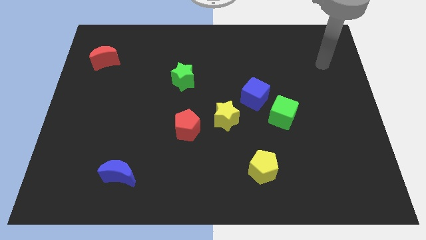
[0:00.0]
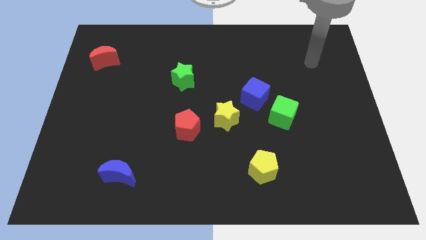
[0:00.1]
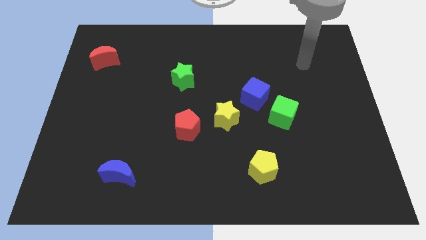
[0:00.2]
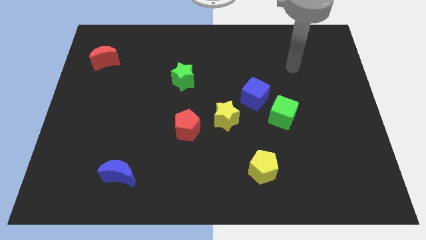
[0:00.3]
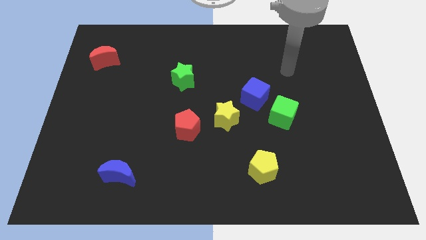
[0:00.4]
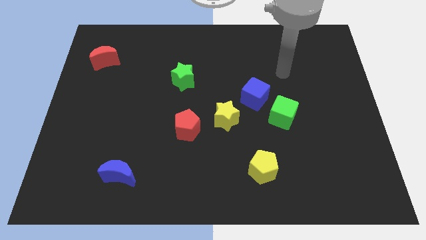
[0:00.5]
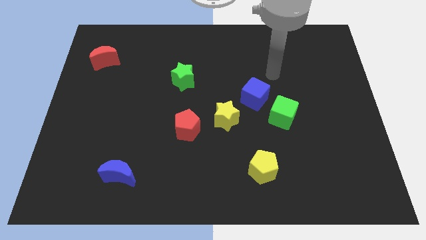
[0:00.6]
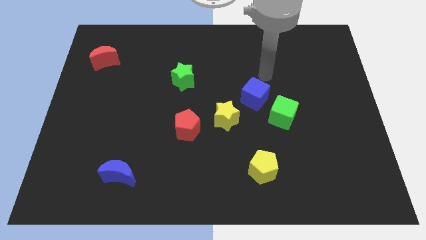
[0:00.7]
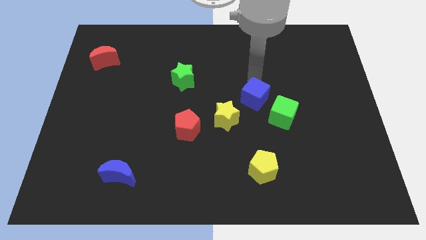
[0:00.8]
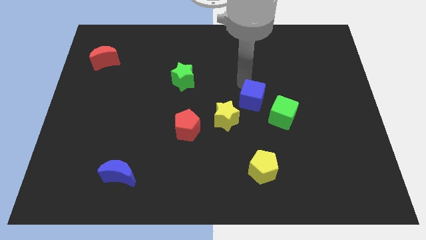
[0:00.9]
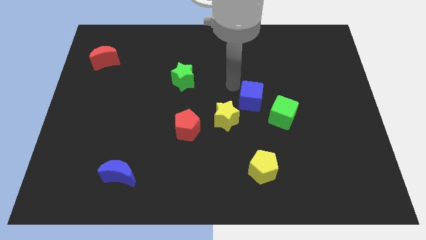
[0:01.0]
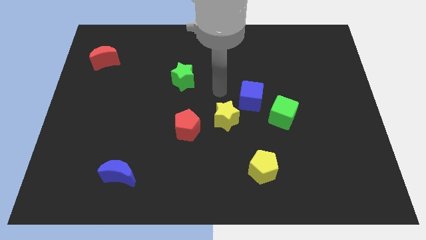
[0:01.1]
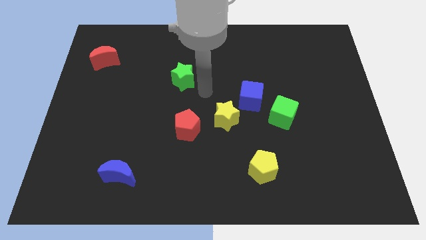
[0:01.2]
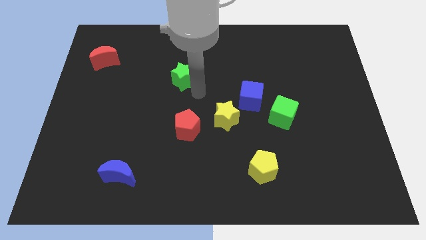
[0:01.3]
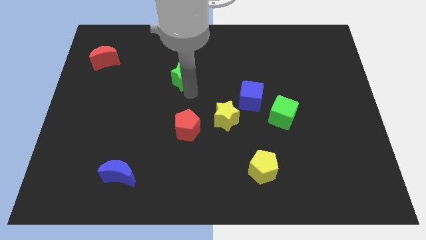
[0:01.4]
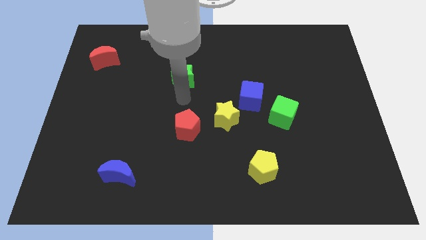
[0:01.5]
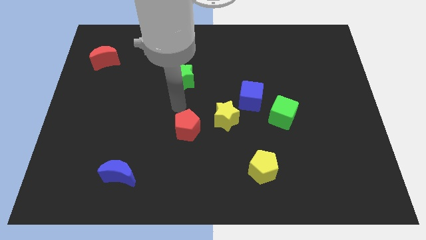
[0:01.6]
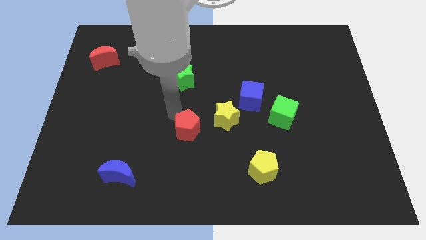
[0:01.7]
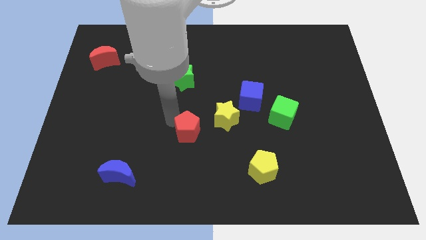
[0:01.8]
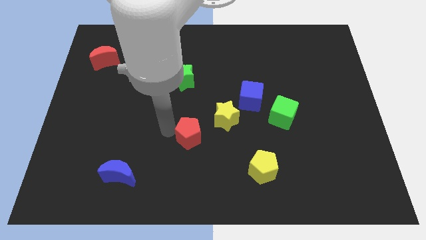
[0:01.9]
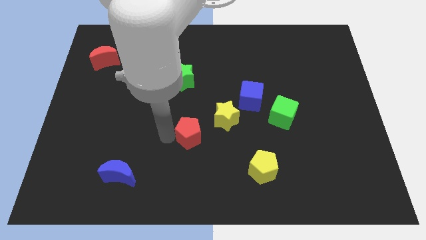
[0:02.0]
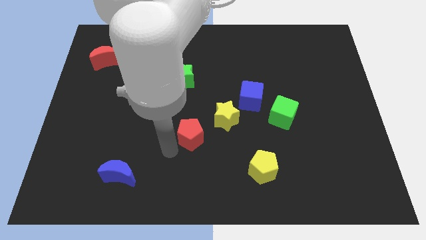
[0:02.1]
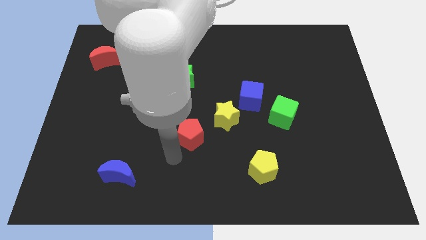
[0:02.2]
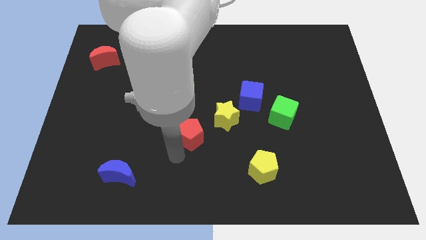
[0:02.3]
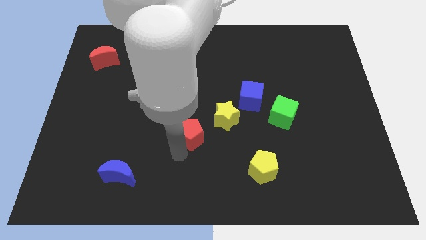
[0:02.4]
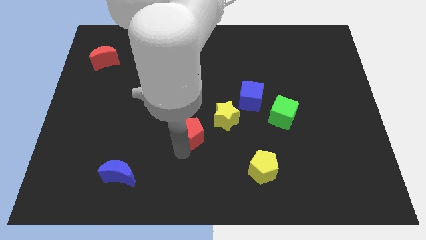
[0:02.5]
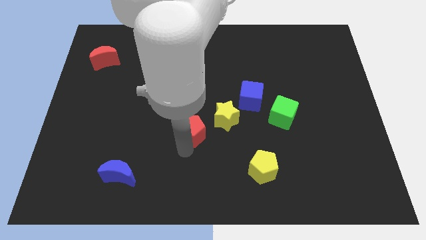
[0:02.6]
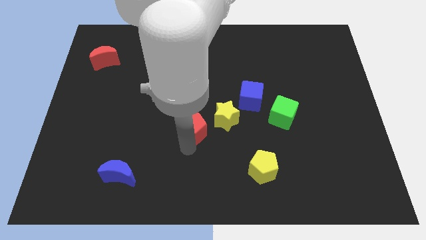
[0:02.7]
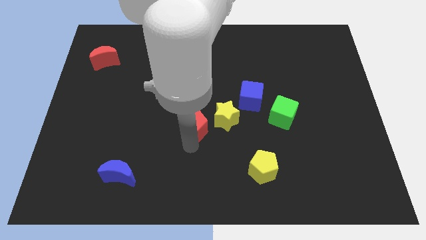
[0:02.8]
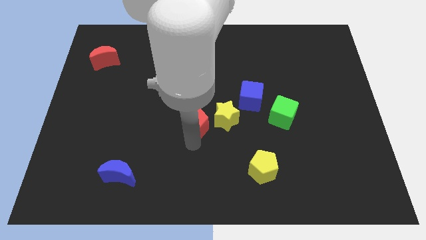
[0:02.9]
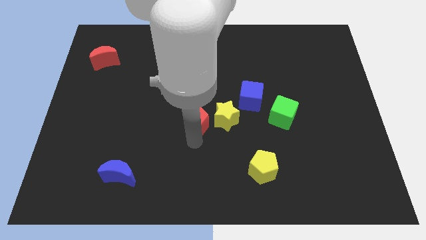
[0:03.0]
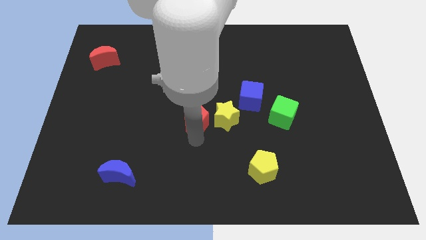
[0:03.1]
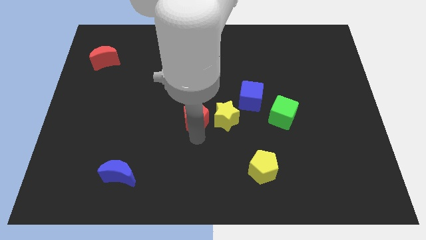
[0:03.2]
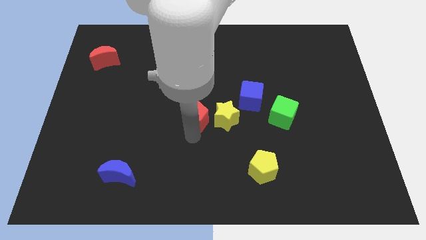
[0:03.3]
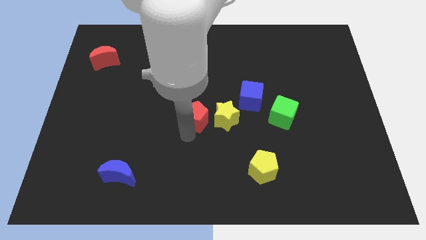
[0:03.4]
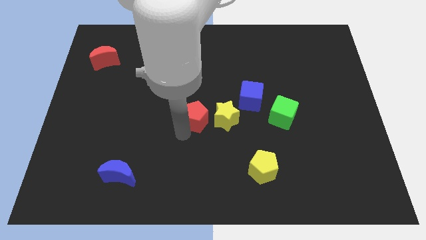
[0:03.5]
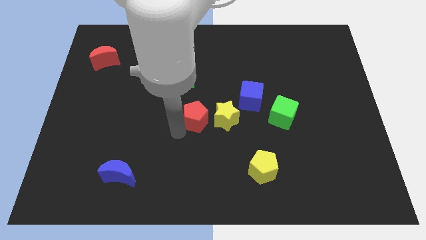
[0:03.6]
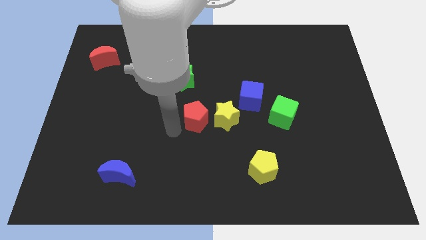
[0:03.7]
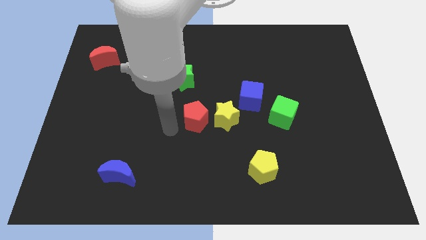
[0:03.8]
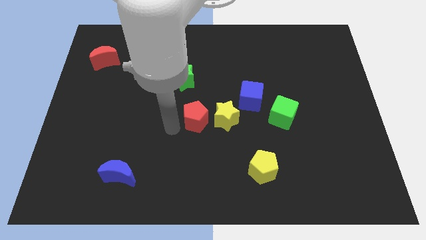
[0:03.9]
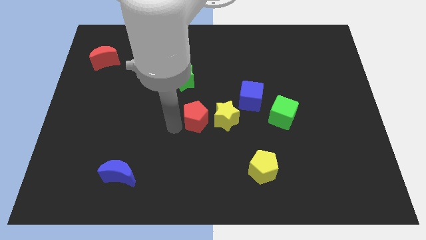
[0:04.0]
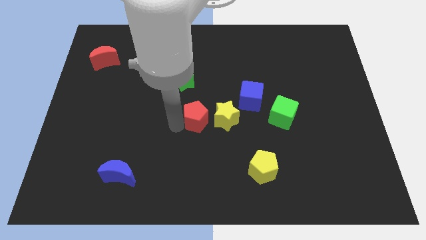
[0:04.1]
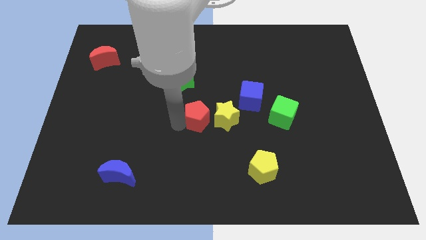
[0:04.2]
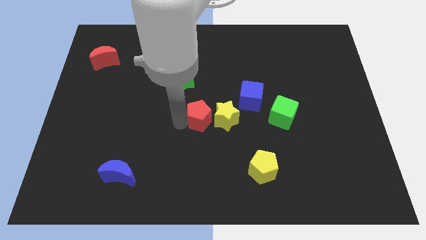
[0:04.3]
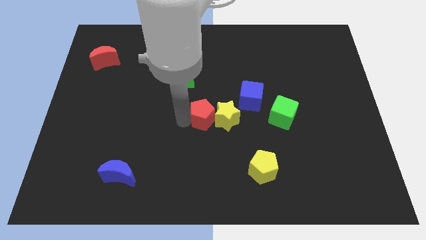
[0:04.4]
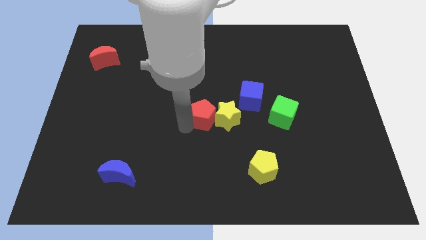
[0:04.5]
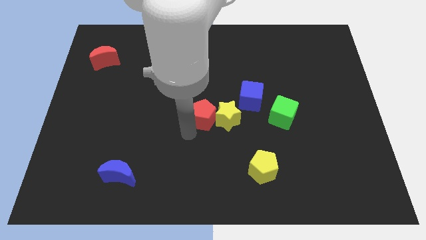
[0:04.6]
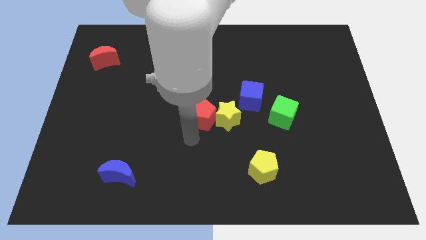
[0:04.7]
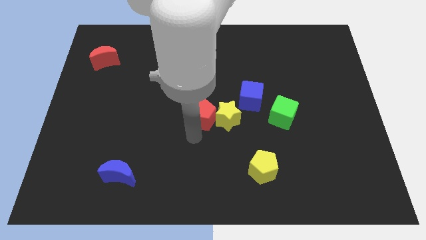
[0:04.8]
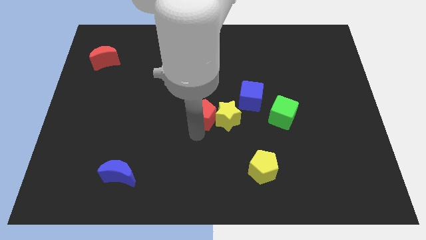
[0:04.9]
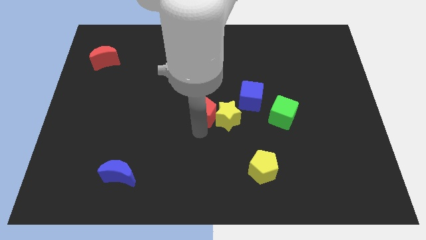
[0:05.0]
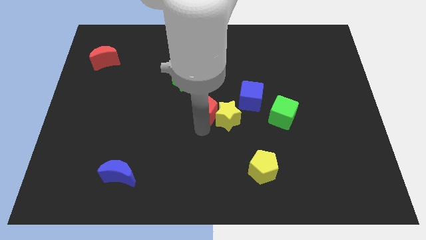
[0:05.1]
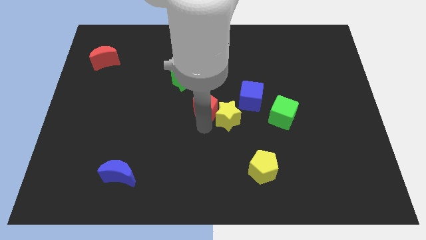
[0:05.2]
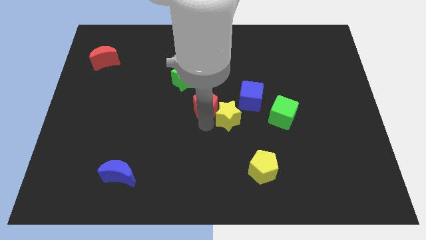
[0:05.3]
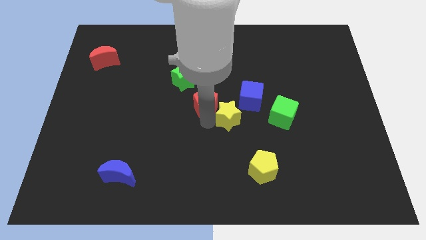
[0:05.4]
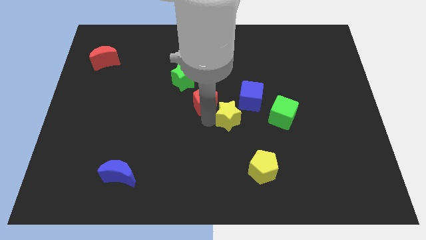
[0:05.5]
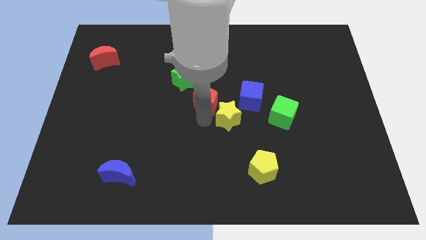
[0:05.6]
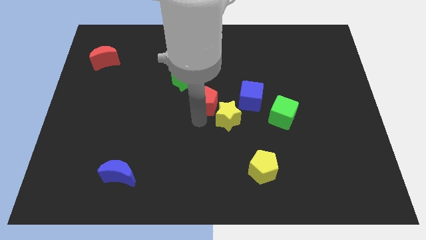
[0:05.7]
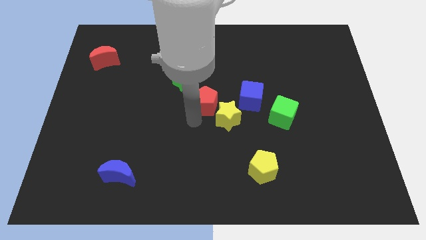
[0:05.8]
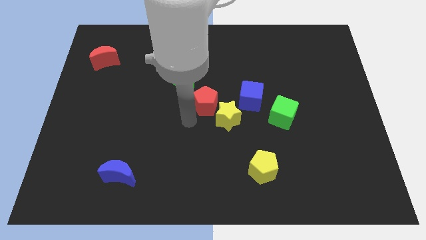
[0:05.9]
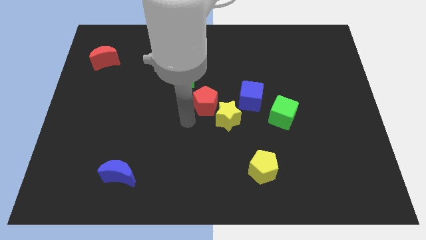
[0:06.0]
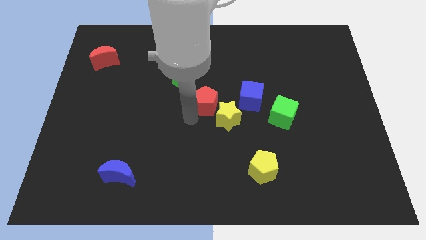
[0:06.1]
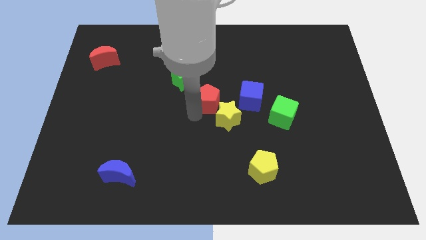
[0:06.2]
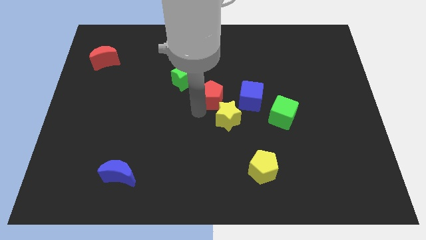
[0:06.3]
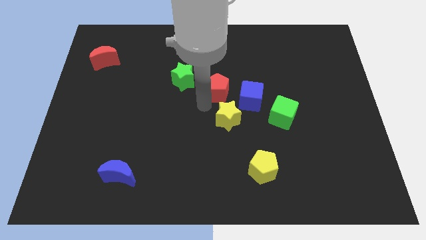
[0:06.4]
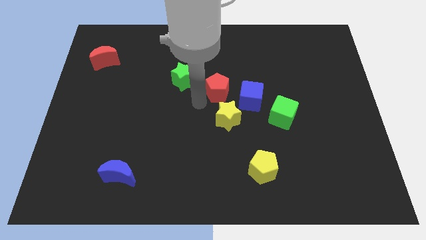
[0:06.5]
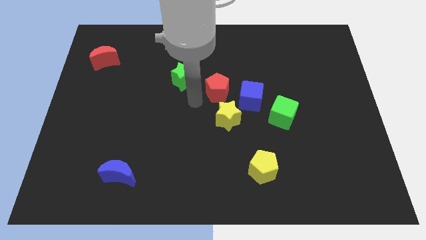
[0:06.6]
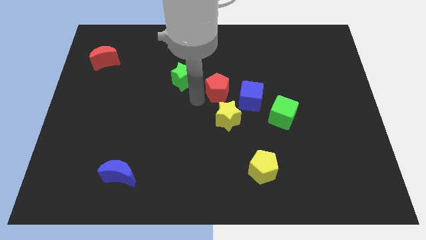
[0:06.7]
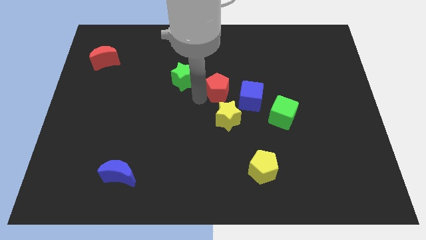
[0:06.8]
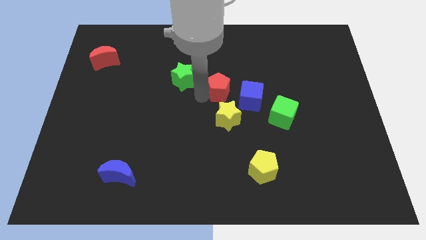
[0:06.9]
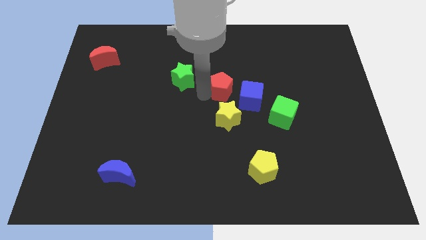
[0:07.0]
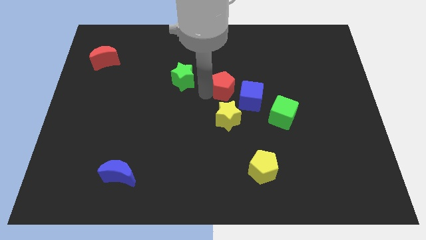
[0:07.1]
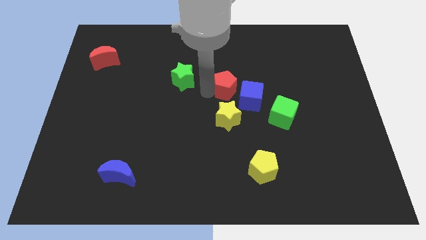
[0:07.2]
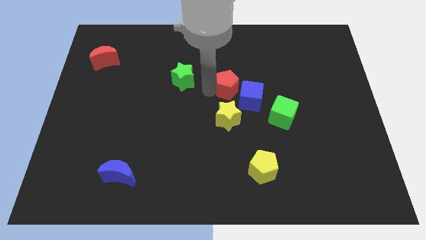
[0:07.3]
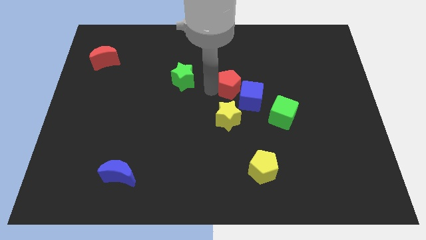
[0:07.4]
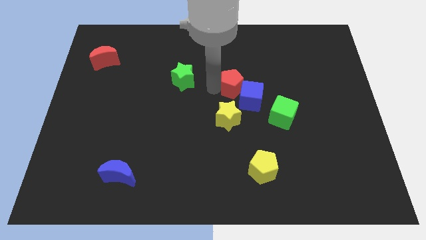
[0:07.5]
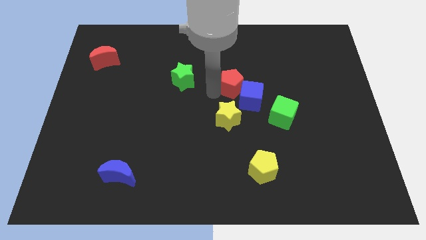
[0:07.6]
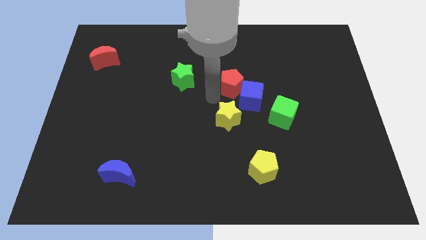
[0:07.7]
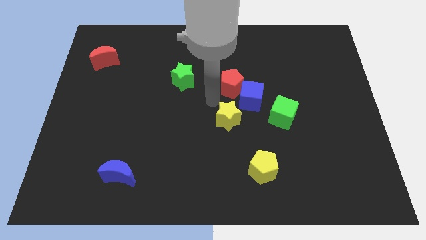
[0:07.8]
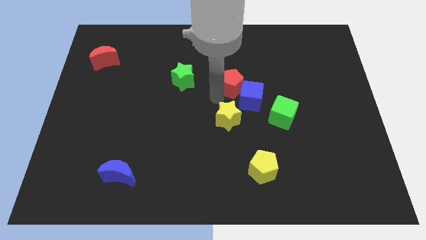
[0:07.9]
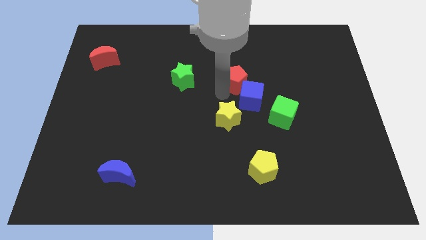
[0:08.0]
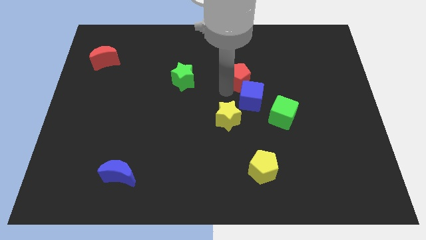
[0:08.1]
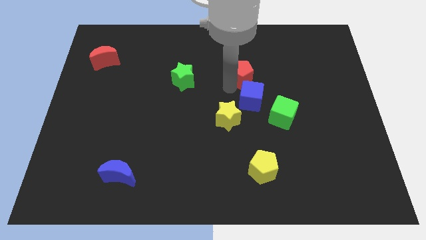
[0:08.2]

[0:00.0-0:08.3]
move the red pentagon up and to the right diagonally
